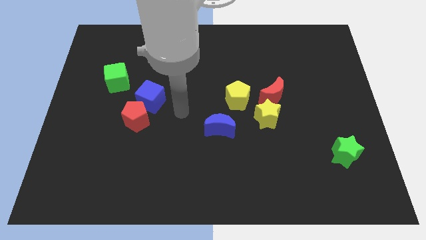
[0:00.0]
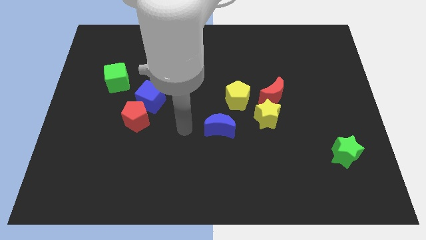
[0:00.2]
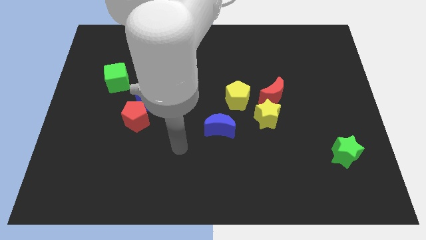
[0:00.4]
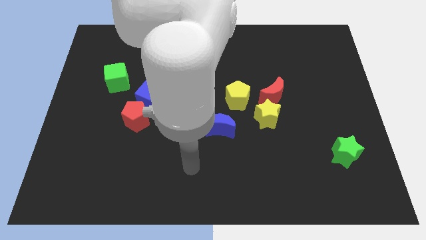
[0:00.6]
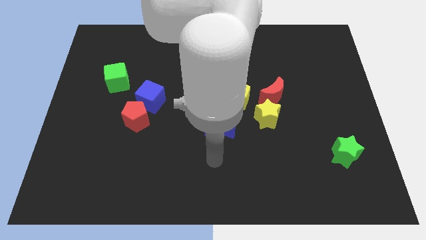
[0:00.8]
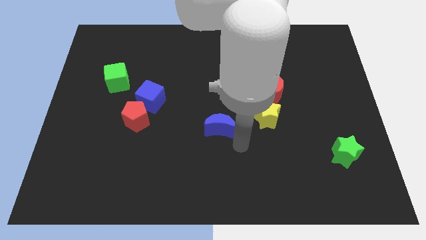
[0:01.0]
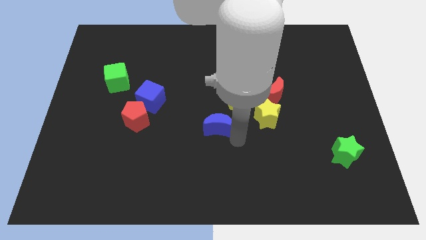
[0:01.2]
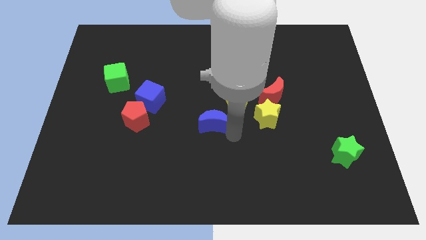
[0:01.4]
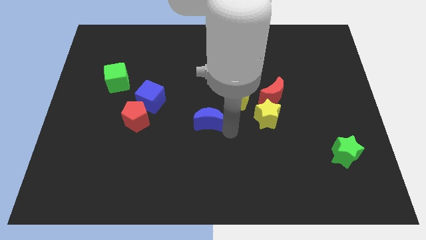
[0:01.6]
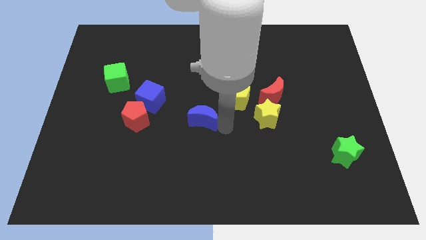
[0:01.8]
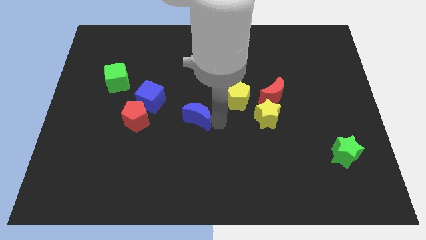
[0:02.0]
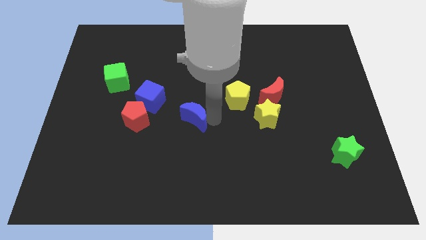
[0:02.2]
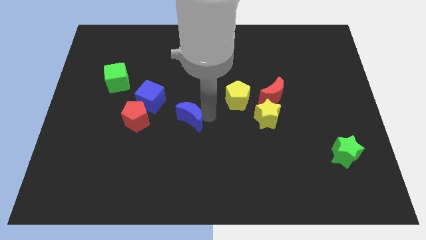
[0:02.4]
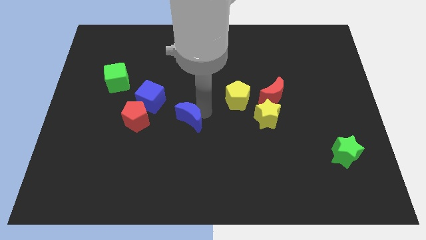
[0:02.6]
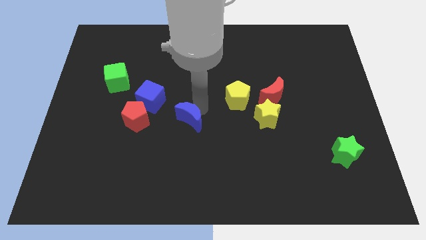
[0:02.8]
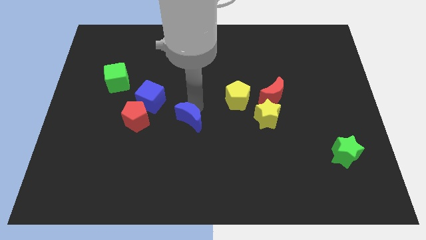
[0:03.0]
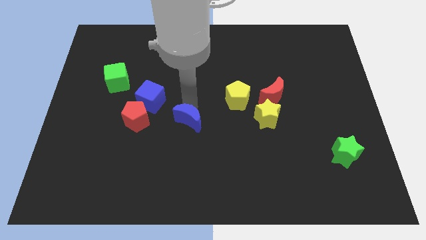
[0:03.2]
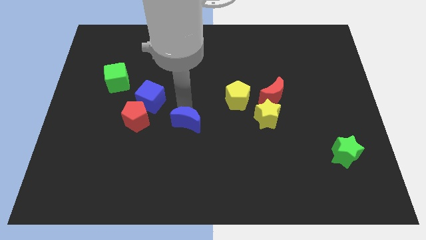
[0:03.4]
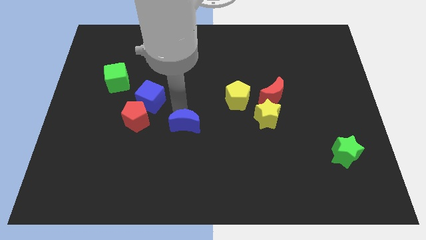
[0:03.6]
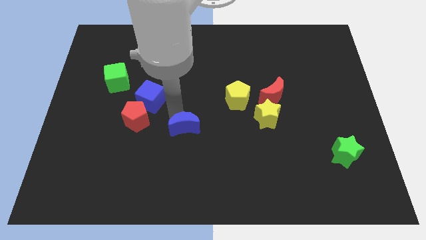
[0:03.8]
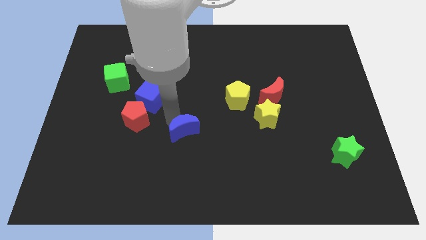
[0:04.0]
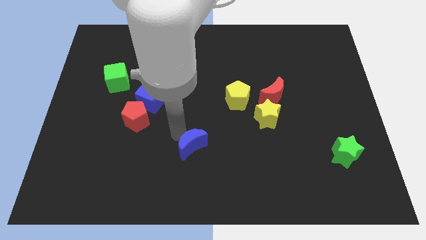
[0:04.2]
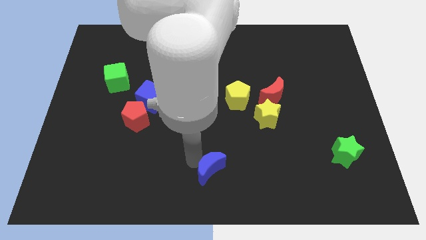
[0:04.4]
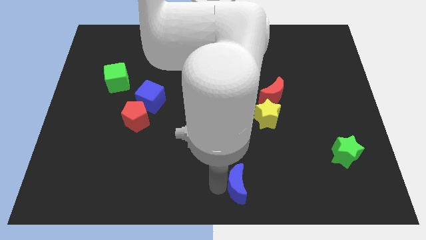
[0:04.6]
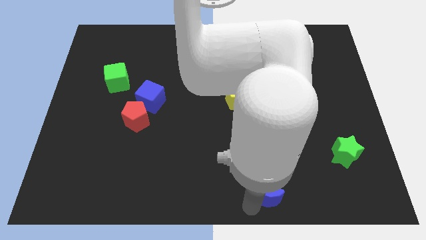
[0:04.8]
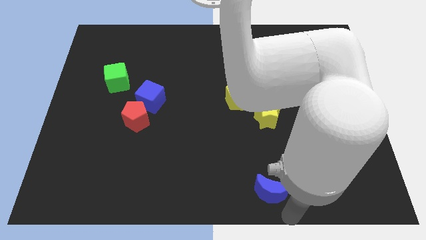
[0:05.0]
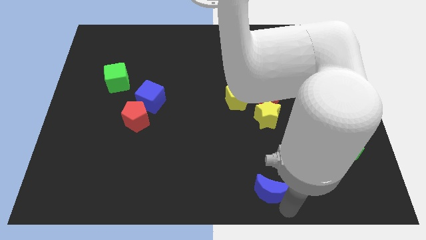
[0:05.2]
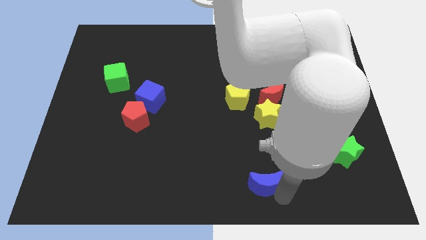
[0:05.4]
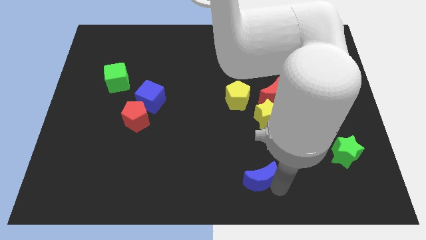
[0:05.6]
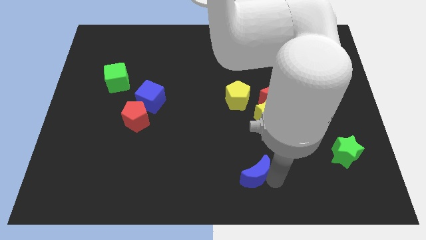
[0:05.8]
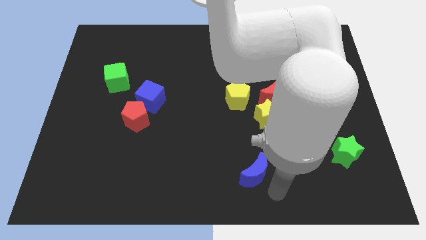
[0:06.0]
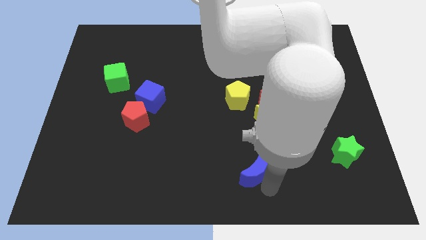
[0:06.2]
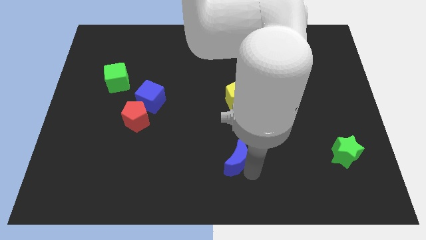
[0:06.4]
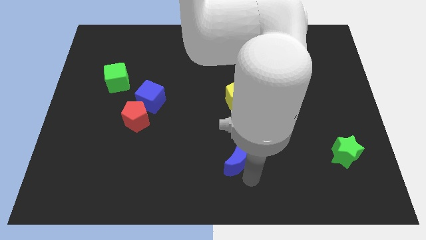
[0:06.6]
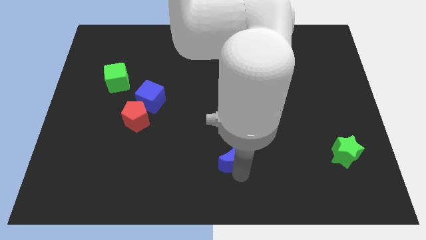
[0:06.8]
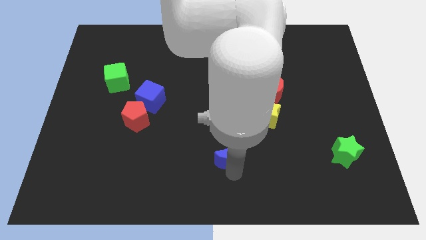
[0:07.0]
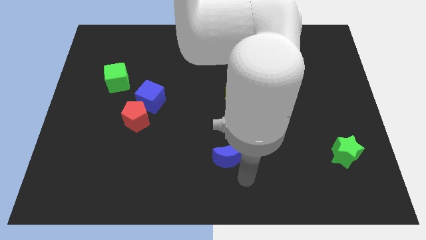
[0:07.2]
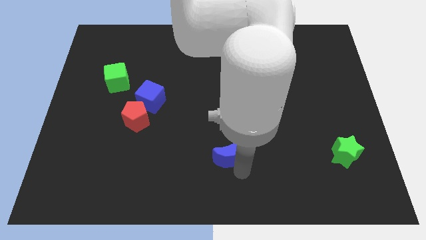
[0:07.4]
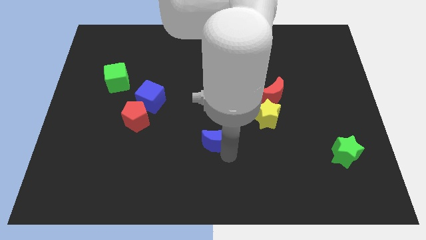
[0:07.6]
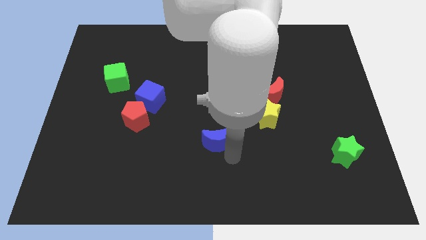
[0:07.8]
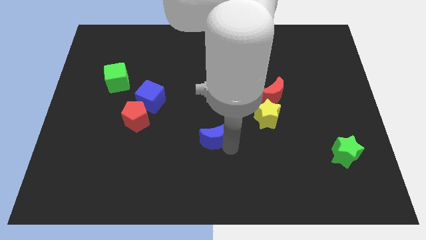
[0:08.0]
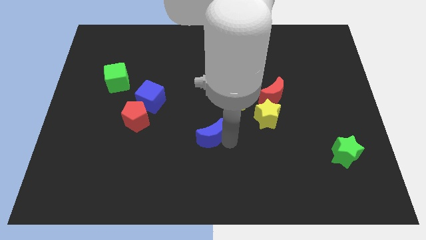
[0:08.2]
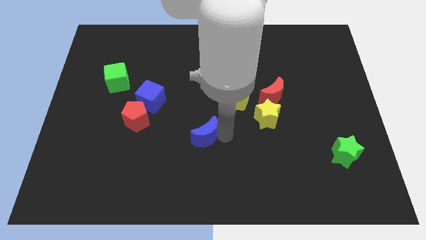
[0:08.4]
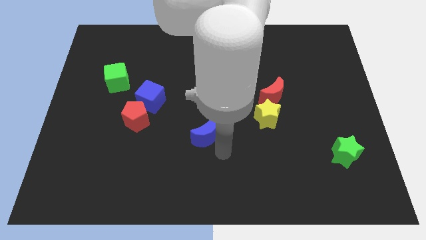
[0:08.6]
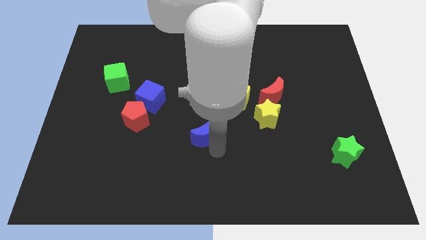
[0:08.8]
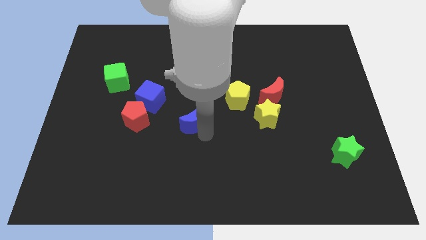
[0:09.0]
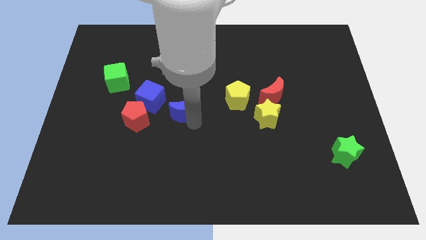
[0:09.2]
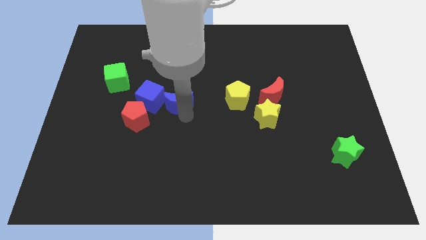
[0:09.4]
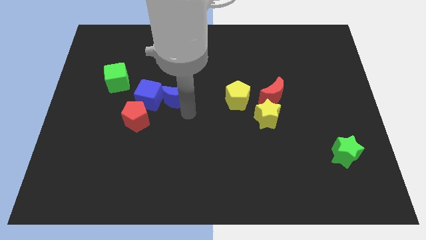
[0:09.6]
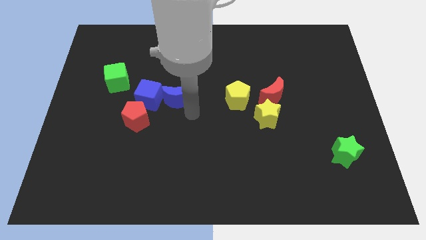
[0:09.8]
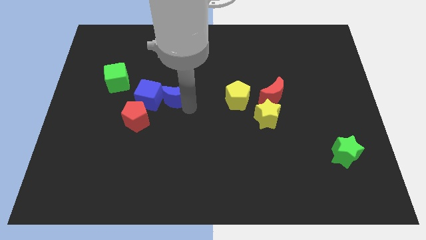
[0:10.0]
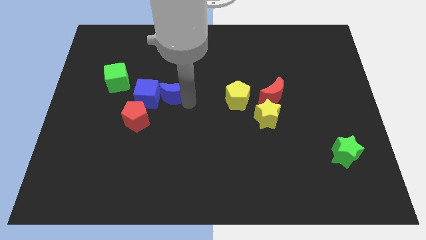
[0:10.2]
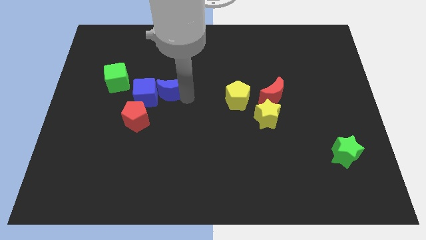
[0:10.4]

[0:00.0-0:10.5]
slide the blue moon to the right side of the green cube

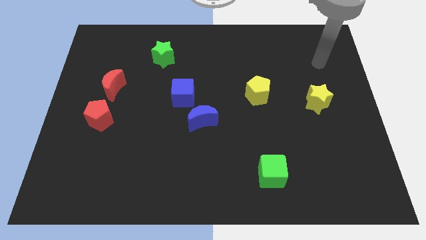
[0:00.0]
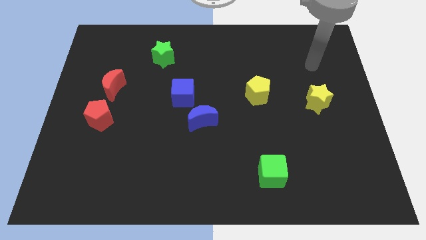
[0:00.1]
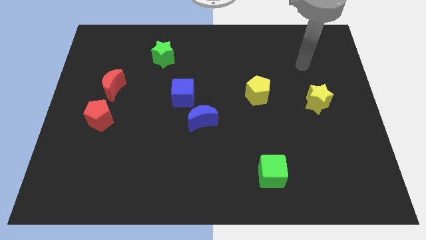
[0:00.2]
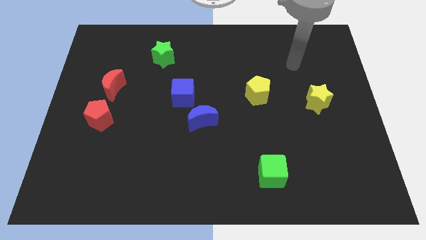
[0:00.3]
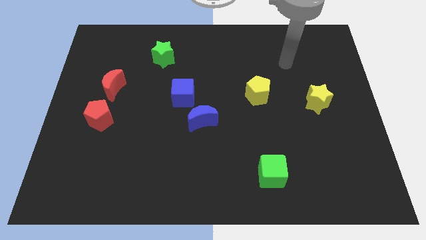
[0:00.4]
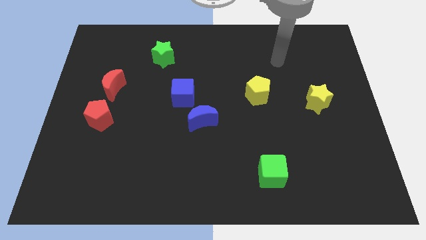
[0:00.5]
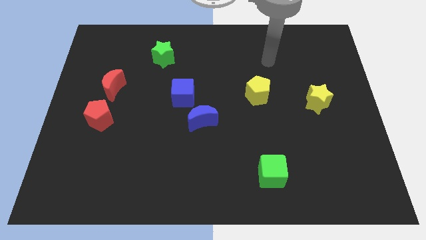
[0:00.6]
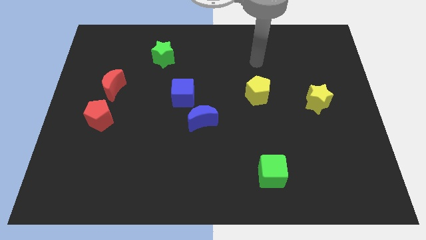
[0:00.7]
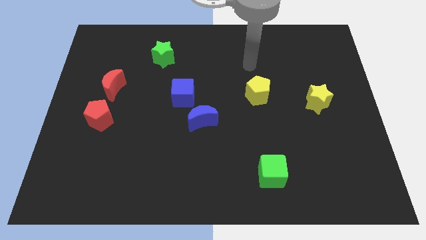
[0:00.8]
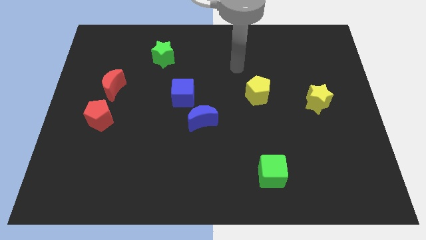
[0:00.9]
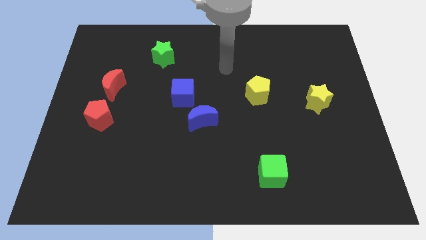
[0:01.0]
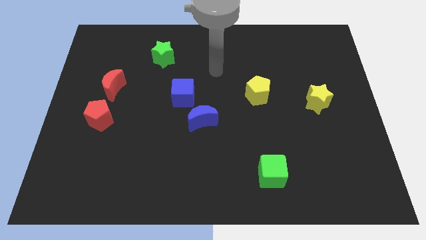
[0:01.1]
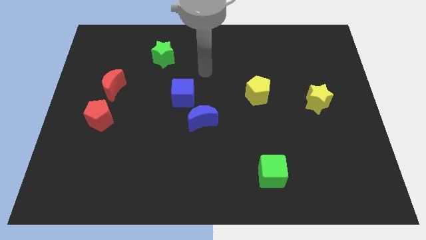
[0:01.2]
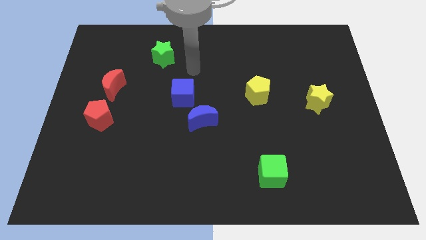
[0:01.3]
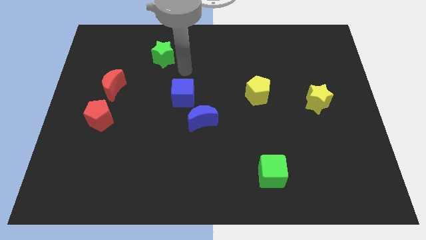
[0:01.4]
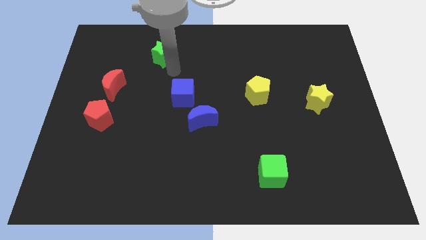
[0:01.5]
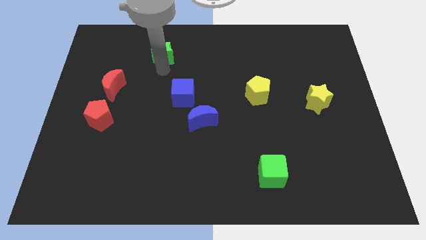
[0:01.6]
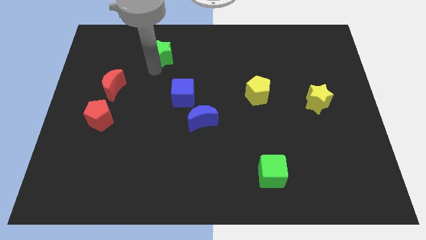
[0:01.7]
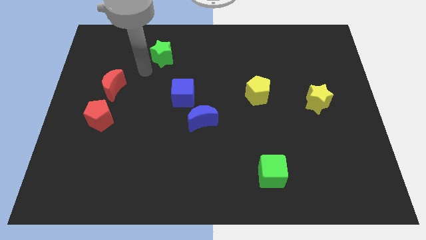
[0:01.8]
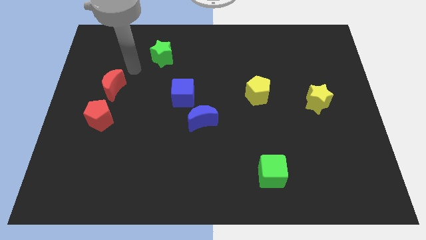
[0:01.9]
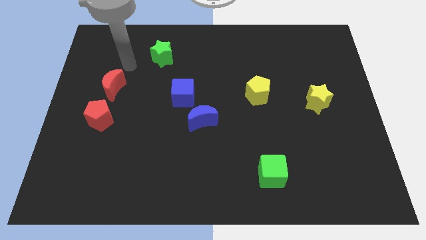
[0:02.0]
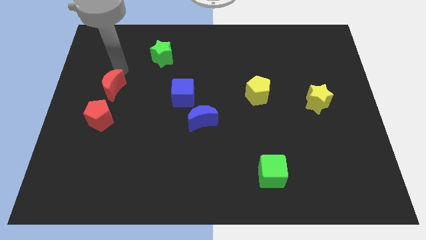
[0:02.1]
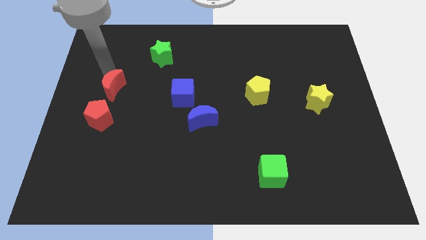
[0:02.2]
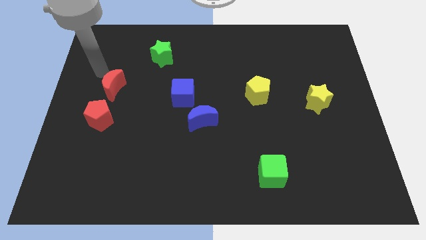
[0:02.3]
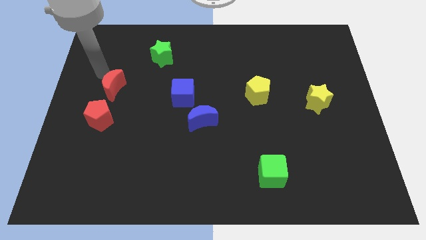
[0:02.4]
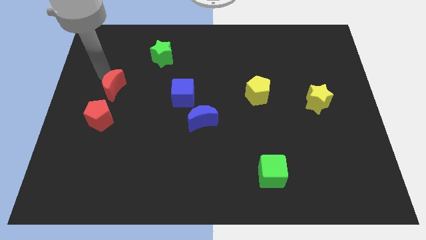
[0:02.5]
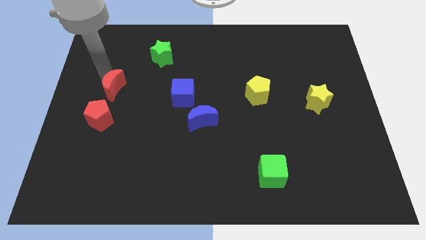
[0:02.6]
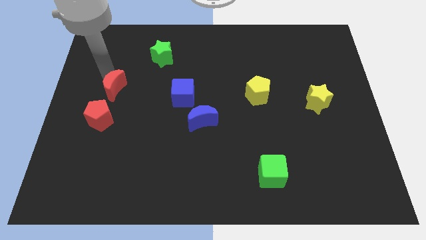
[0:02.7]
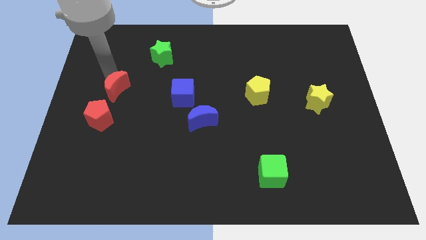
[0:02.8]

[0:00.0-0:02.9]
push the red moon diagonally up and to the right of the red pentagon
